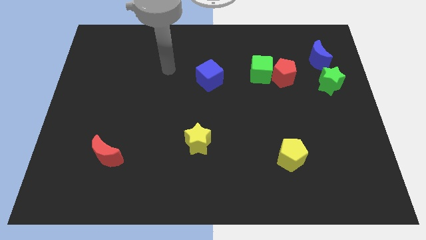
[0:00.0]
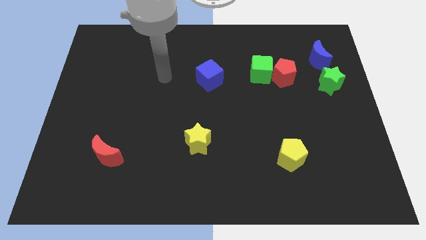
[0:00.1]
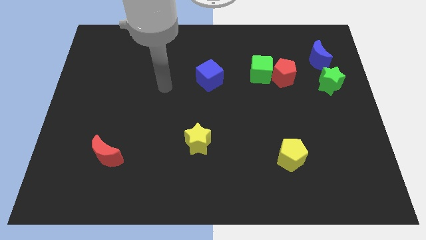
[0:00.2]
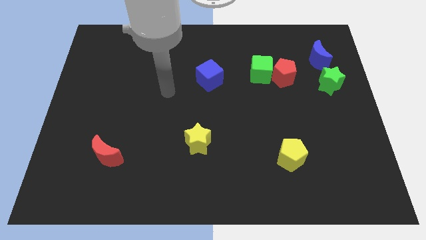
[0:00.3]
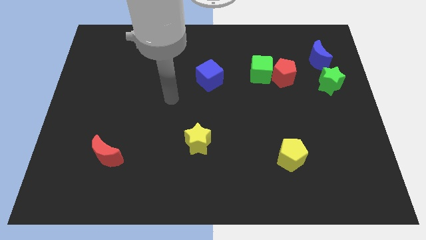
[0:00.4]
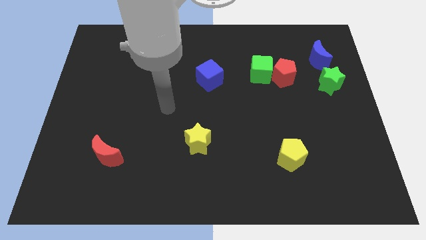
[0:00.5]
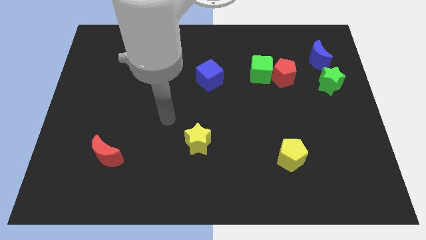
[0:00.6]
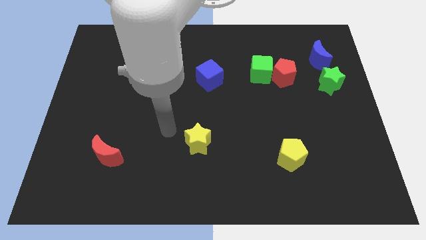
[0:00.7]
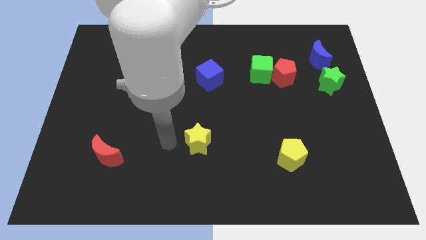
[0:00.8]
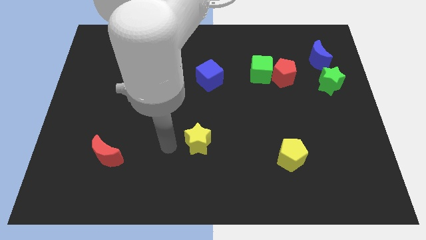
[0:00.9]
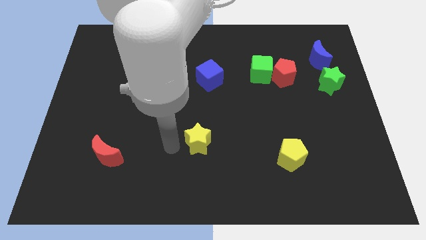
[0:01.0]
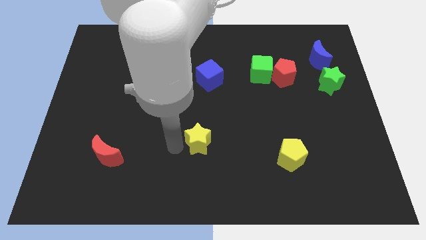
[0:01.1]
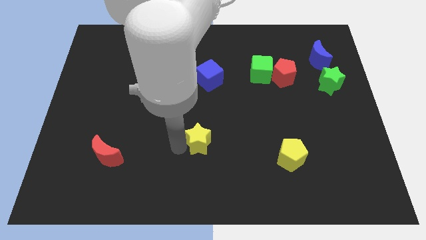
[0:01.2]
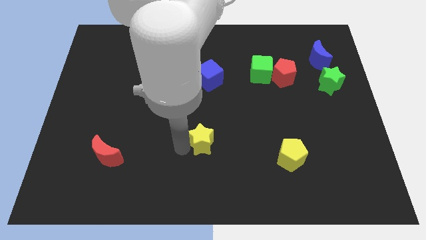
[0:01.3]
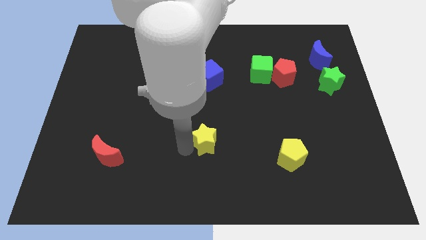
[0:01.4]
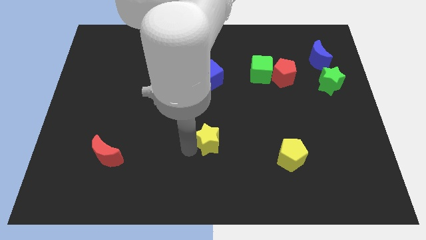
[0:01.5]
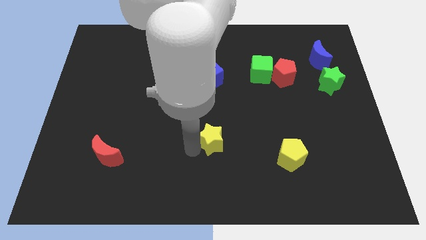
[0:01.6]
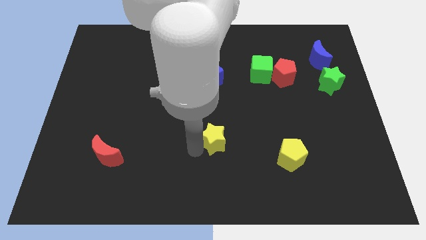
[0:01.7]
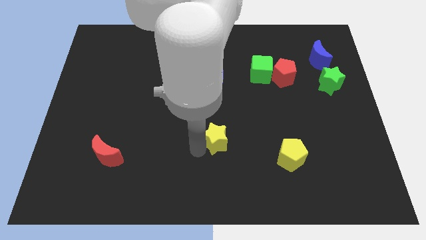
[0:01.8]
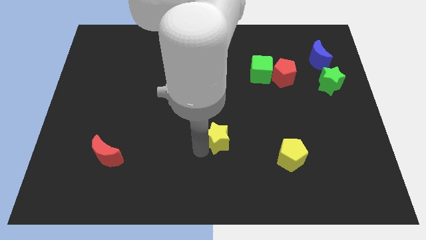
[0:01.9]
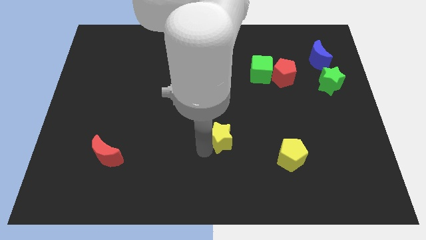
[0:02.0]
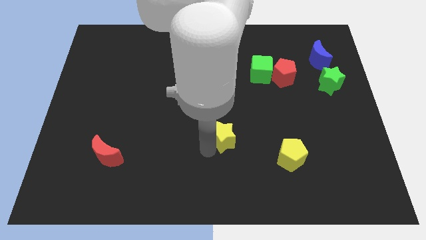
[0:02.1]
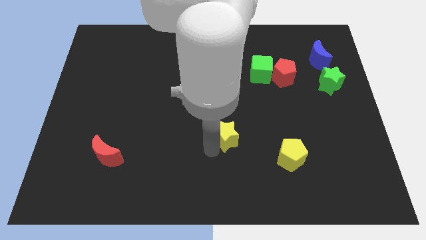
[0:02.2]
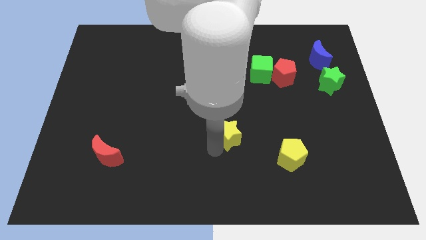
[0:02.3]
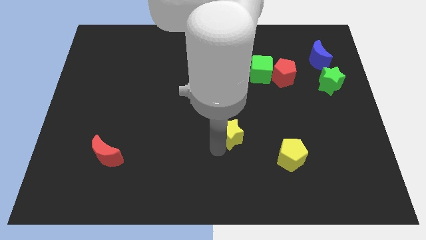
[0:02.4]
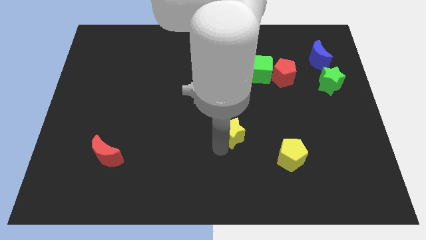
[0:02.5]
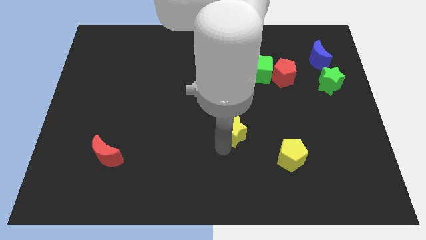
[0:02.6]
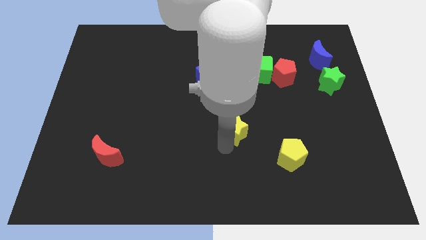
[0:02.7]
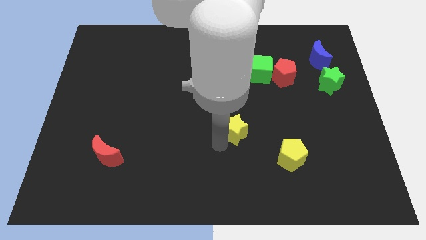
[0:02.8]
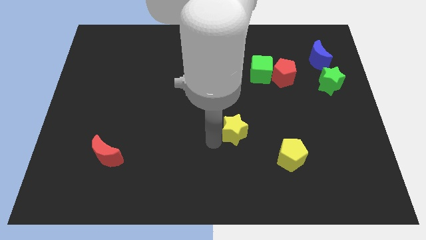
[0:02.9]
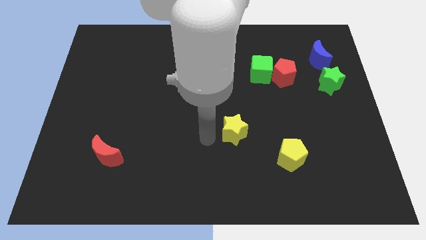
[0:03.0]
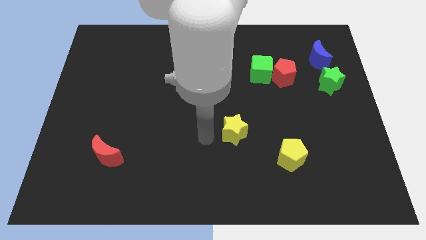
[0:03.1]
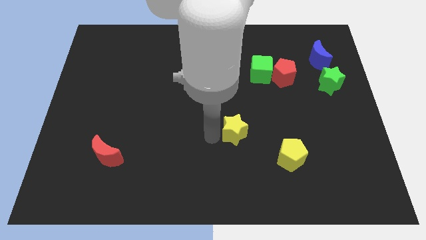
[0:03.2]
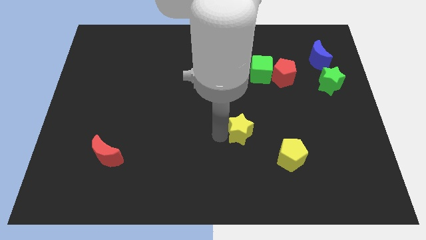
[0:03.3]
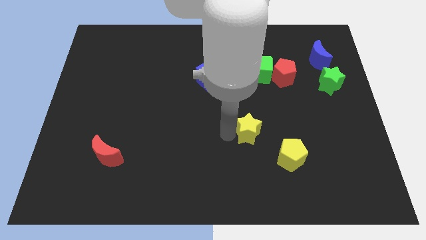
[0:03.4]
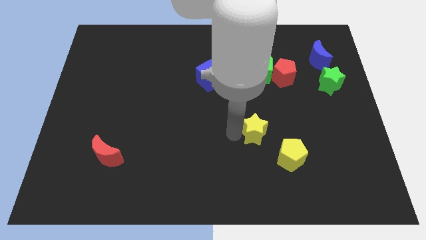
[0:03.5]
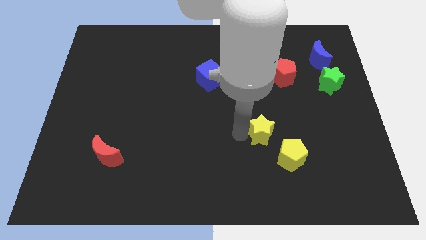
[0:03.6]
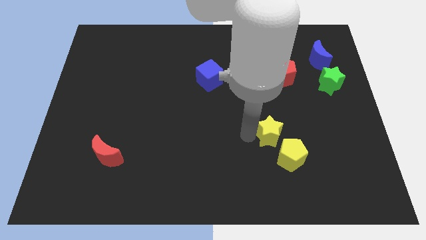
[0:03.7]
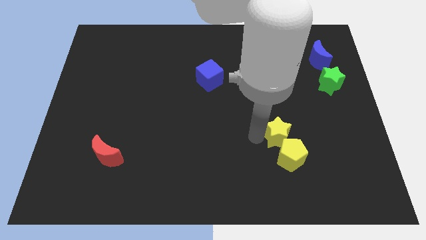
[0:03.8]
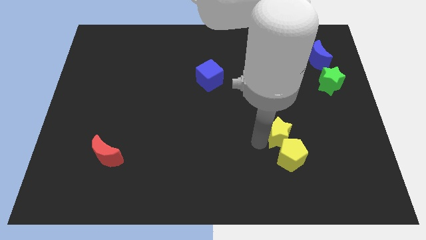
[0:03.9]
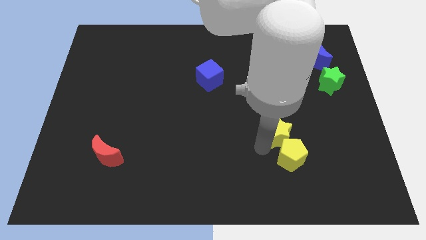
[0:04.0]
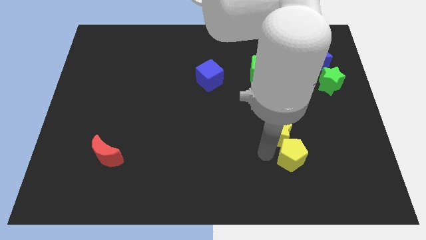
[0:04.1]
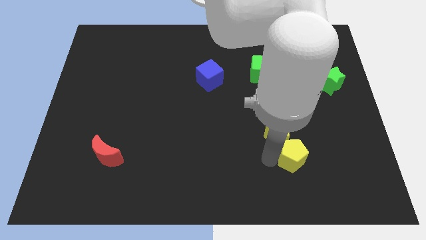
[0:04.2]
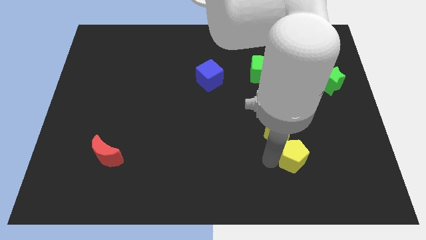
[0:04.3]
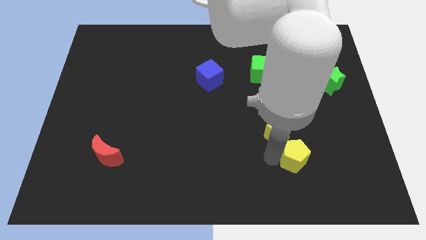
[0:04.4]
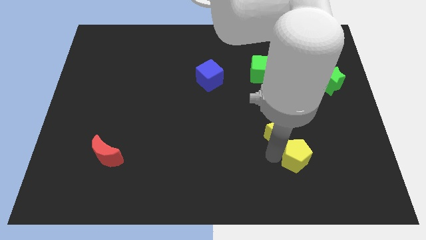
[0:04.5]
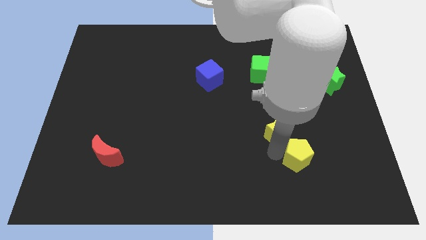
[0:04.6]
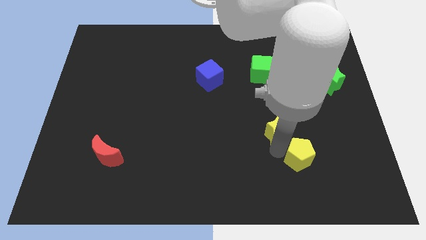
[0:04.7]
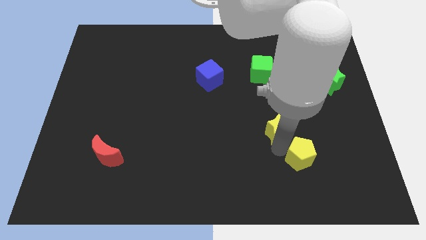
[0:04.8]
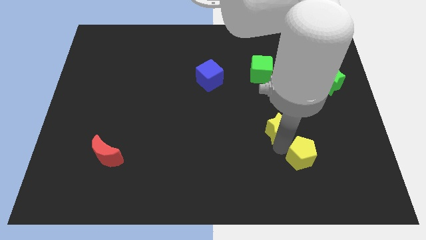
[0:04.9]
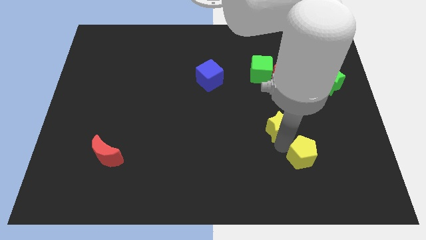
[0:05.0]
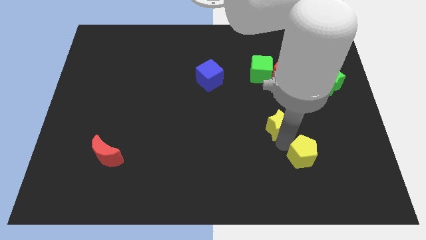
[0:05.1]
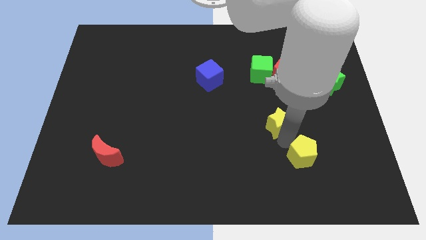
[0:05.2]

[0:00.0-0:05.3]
put the yellow star below the red pentagon

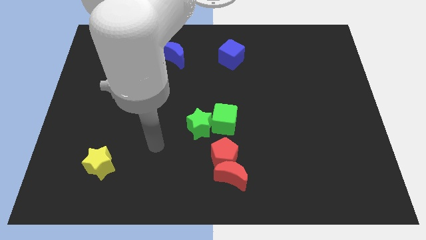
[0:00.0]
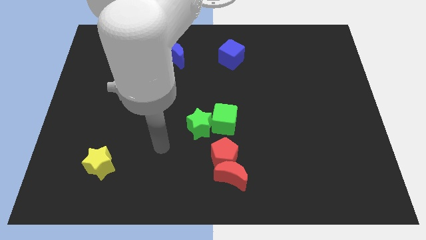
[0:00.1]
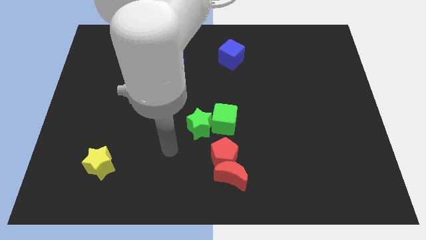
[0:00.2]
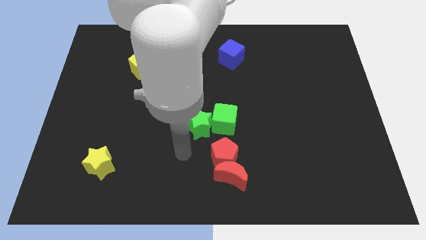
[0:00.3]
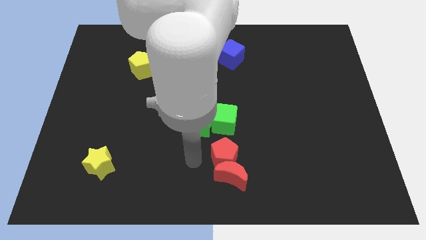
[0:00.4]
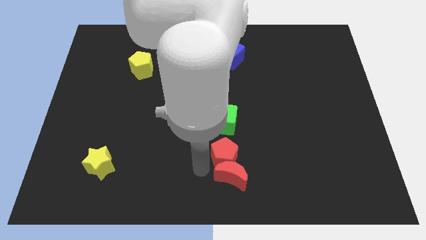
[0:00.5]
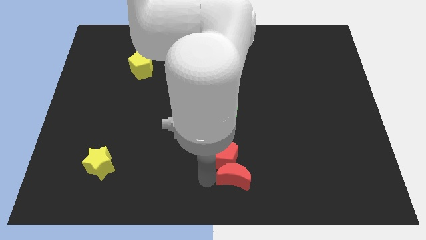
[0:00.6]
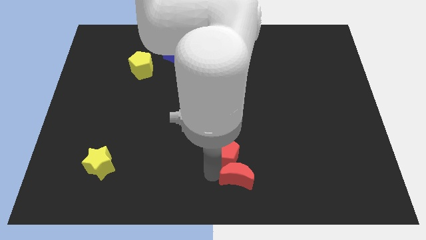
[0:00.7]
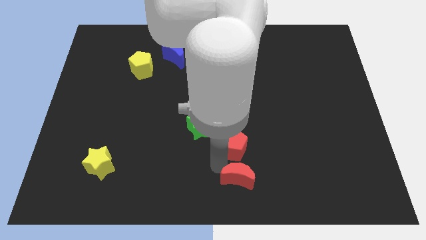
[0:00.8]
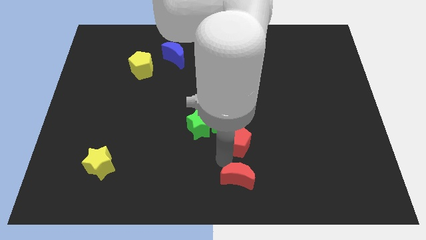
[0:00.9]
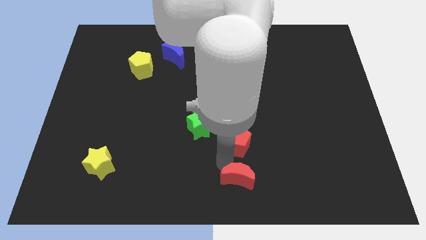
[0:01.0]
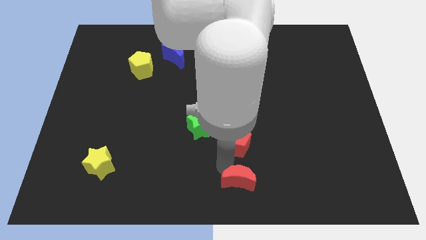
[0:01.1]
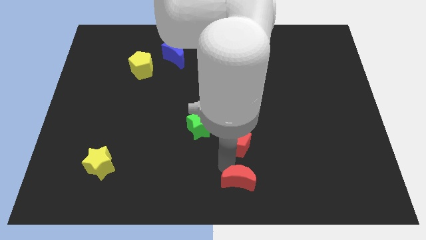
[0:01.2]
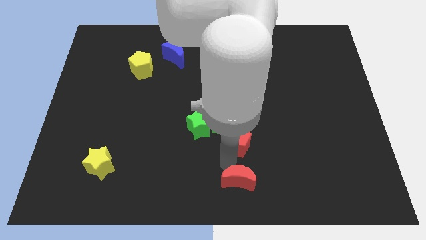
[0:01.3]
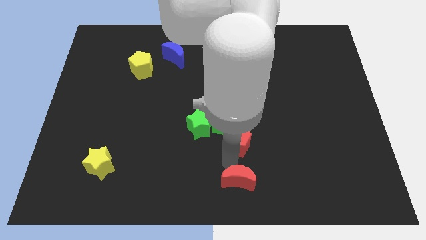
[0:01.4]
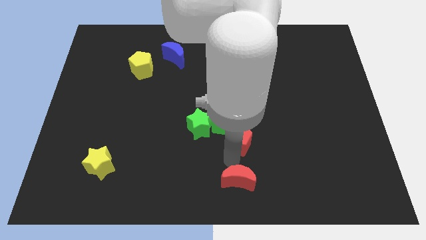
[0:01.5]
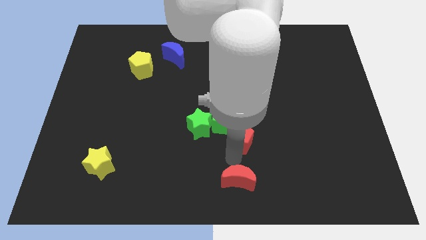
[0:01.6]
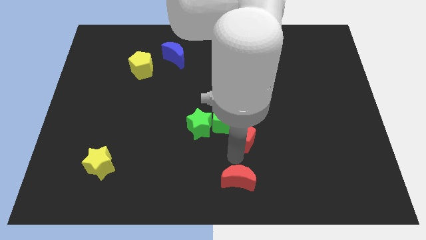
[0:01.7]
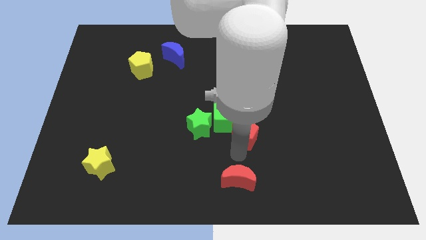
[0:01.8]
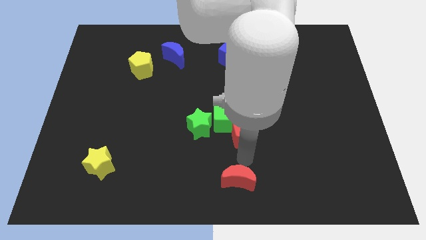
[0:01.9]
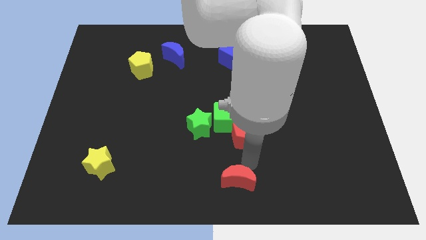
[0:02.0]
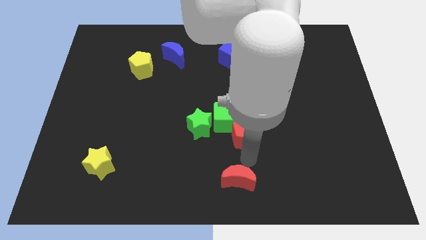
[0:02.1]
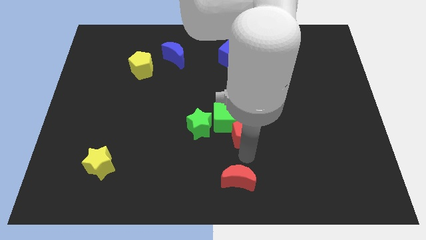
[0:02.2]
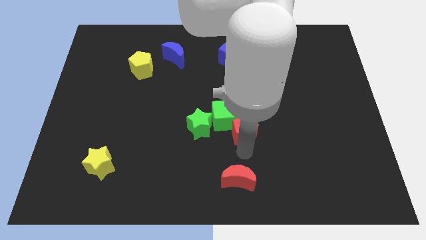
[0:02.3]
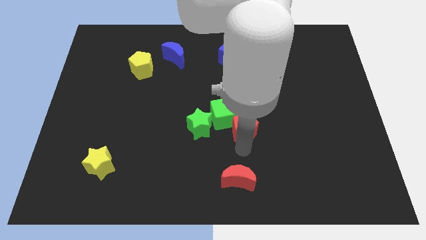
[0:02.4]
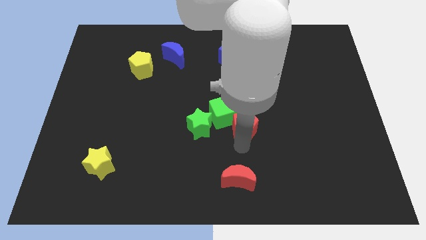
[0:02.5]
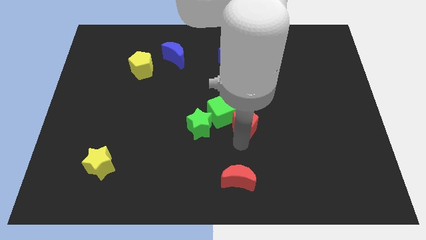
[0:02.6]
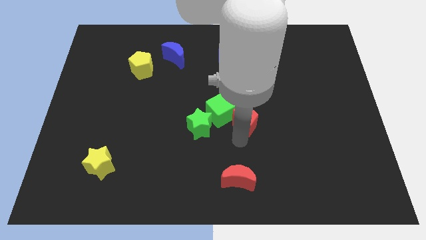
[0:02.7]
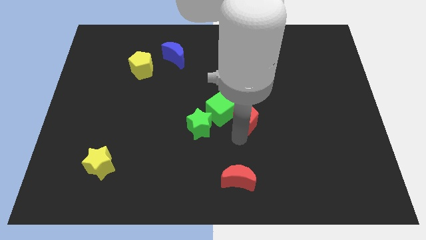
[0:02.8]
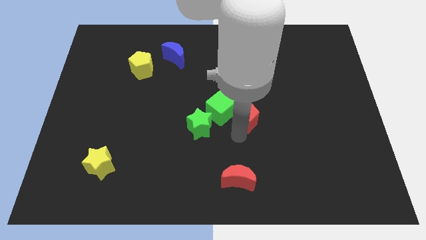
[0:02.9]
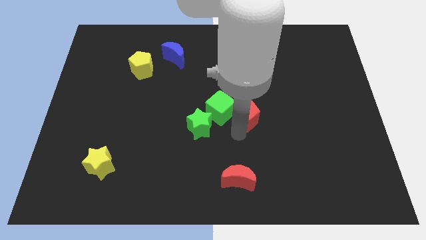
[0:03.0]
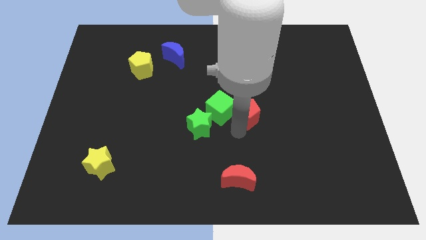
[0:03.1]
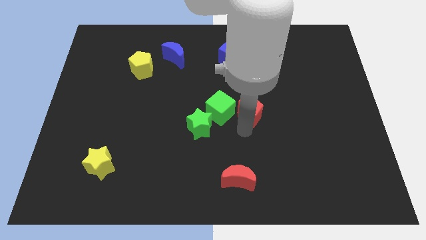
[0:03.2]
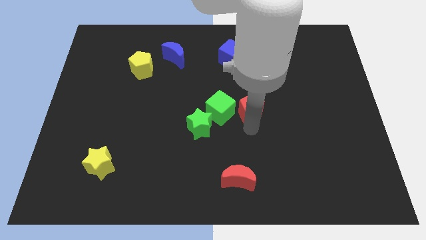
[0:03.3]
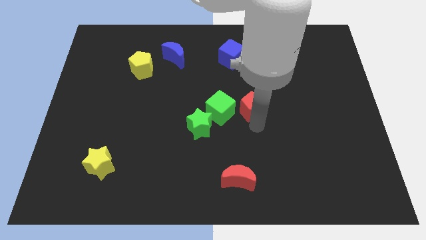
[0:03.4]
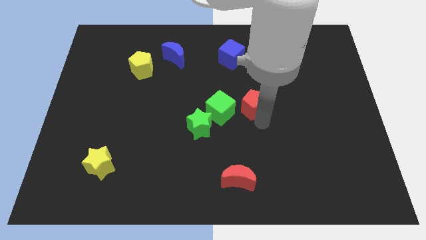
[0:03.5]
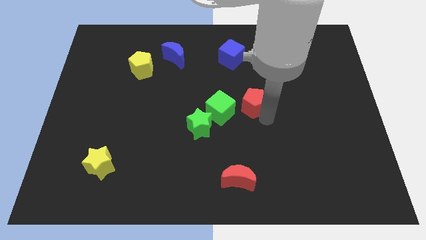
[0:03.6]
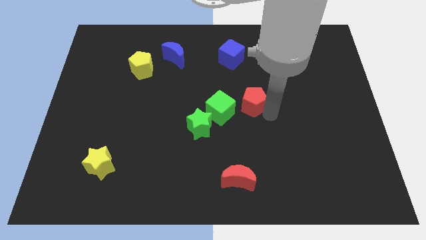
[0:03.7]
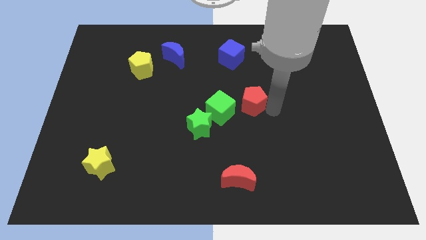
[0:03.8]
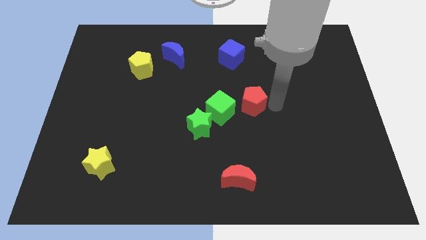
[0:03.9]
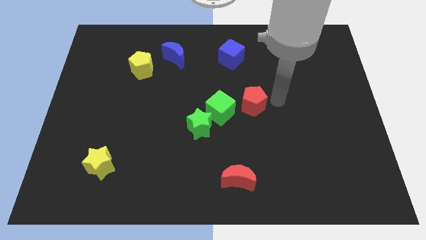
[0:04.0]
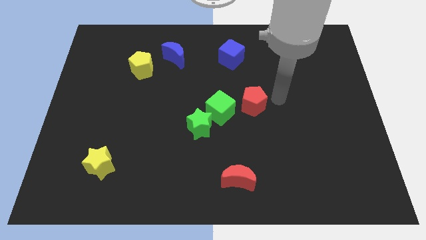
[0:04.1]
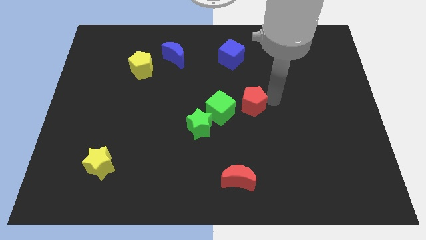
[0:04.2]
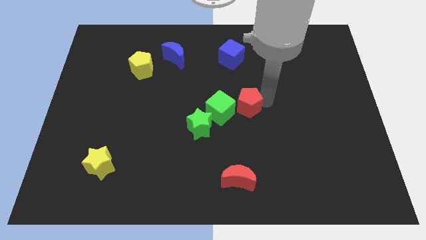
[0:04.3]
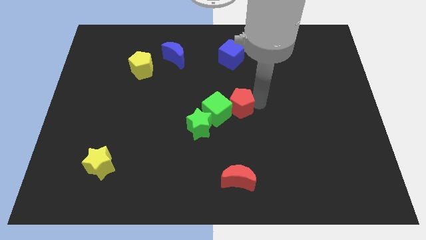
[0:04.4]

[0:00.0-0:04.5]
push the red pentagon to the top right side of the green star
